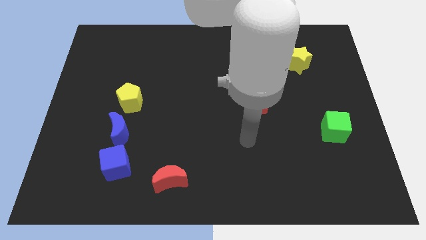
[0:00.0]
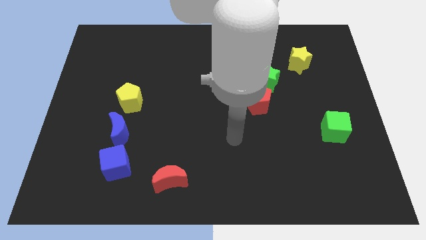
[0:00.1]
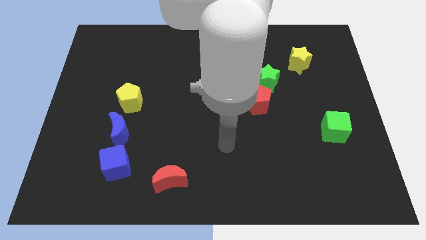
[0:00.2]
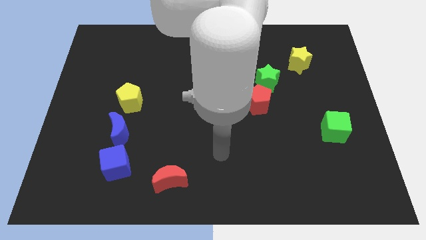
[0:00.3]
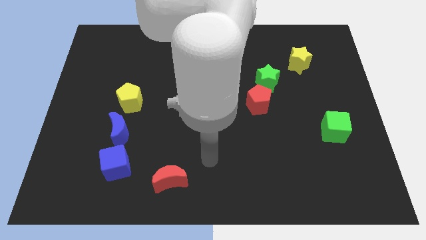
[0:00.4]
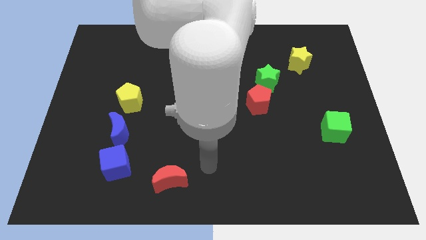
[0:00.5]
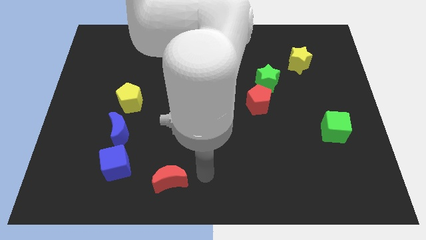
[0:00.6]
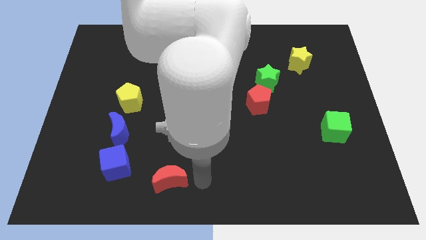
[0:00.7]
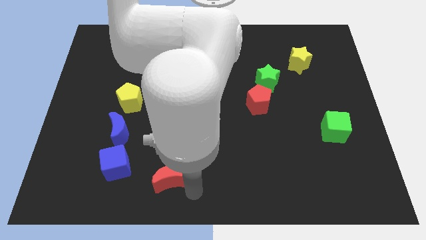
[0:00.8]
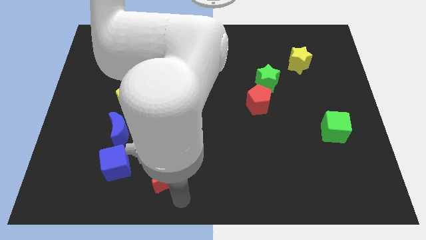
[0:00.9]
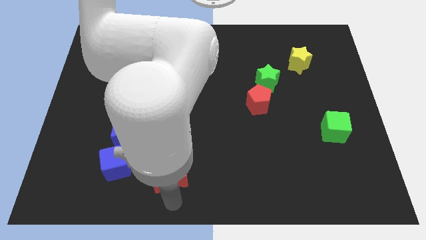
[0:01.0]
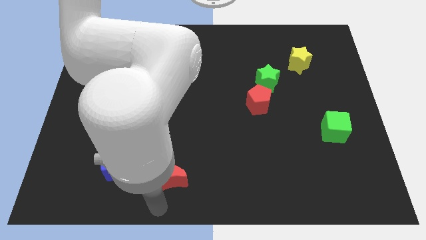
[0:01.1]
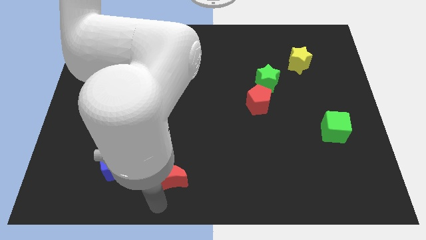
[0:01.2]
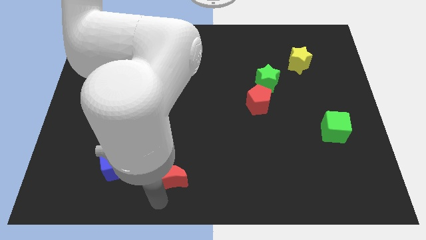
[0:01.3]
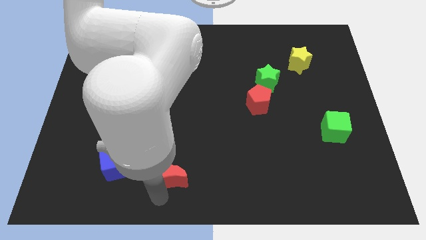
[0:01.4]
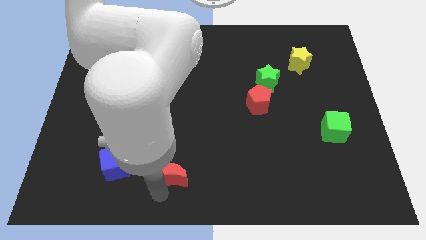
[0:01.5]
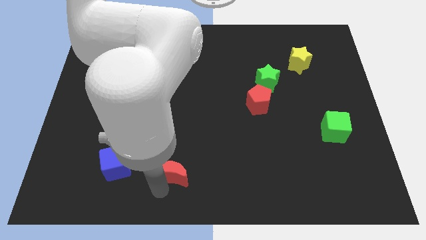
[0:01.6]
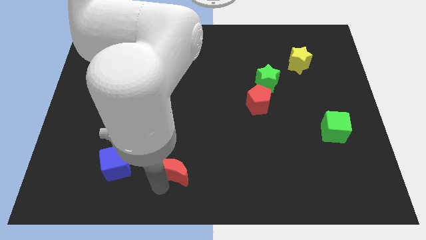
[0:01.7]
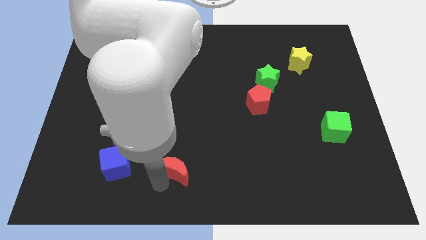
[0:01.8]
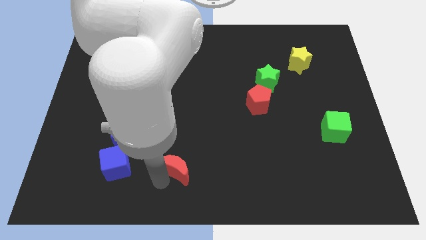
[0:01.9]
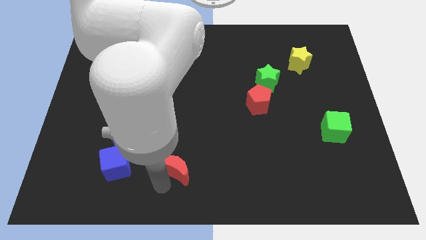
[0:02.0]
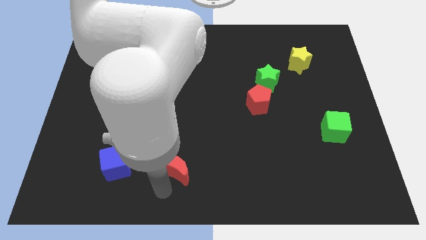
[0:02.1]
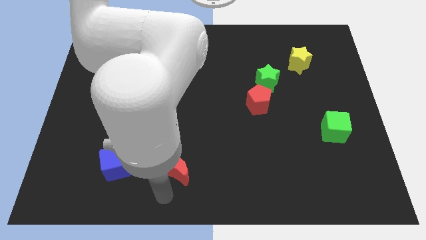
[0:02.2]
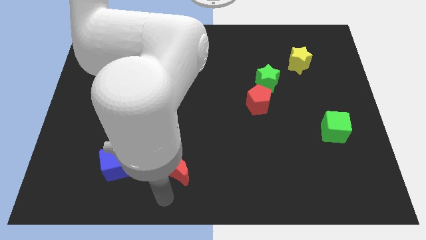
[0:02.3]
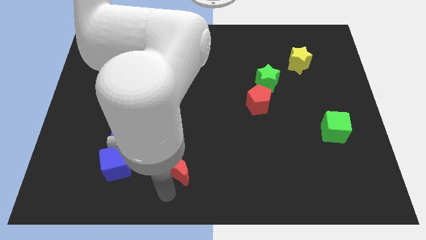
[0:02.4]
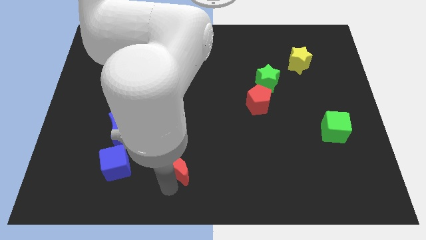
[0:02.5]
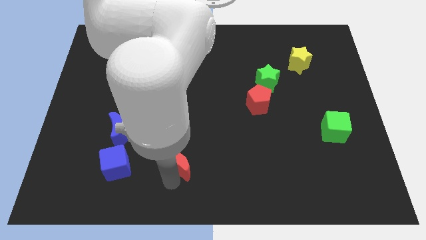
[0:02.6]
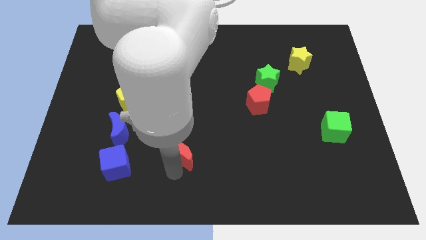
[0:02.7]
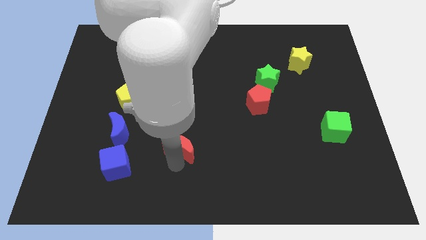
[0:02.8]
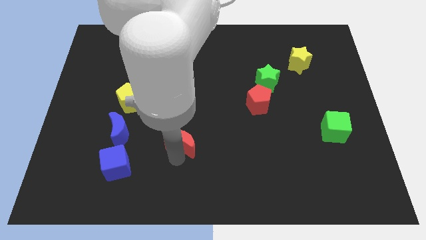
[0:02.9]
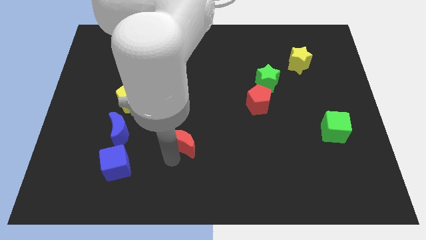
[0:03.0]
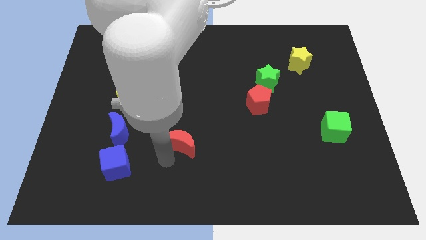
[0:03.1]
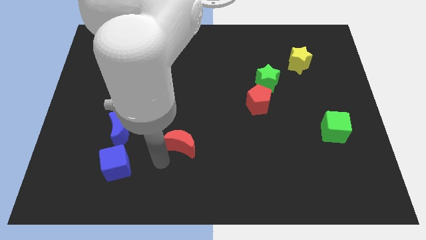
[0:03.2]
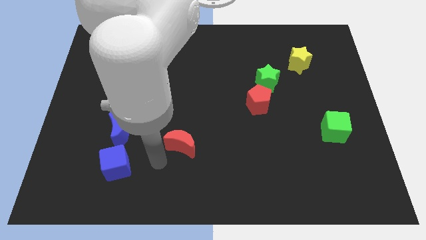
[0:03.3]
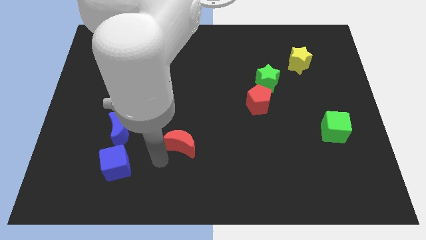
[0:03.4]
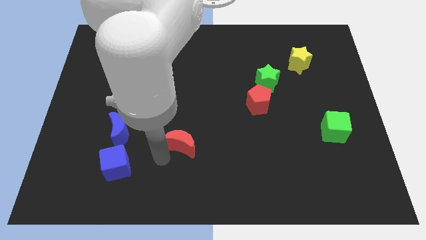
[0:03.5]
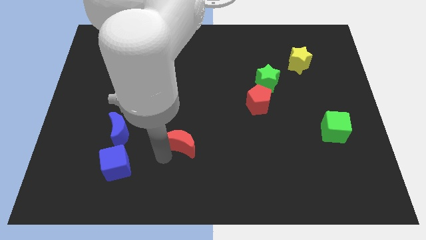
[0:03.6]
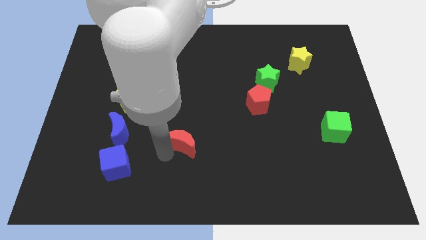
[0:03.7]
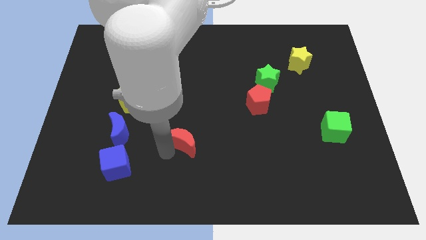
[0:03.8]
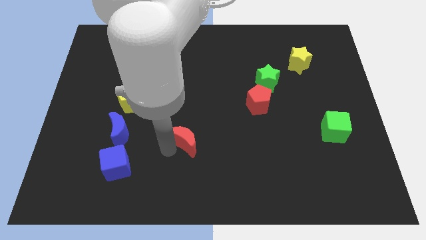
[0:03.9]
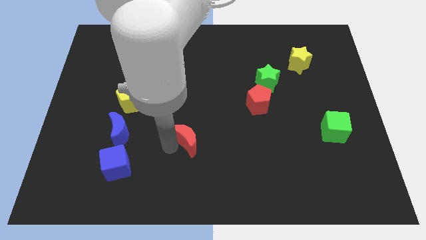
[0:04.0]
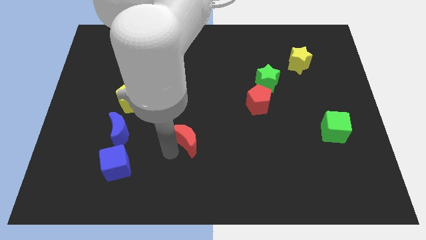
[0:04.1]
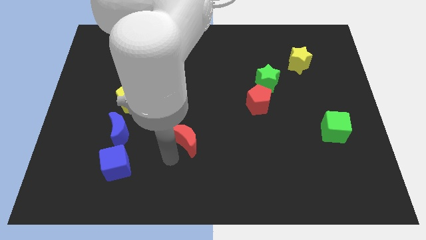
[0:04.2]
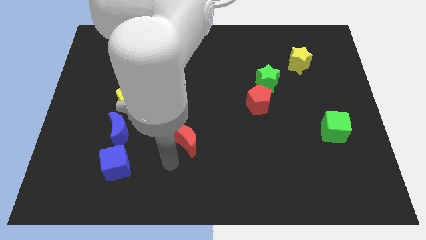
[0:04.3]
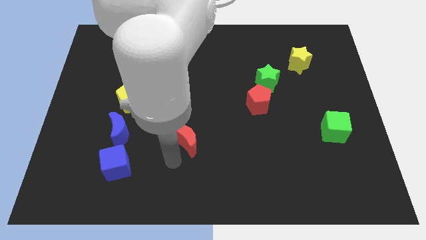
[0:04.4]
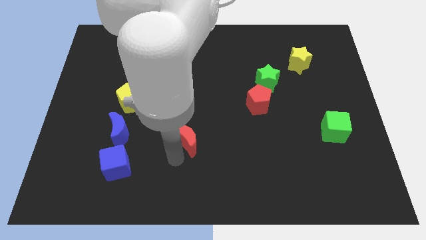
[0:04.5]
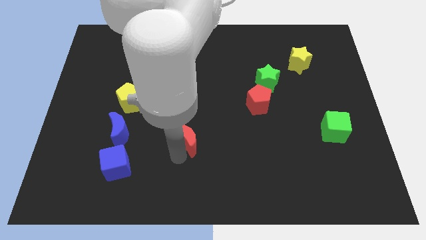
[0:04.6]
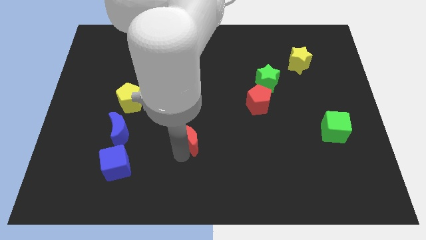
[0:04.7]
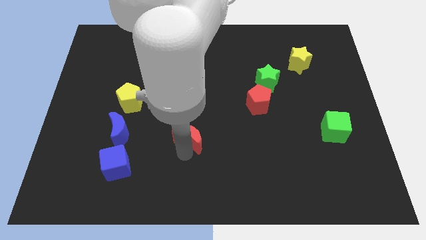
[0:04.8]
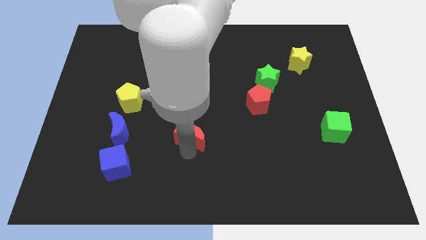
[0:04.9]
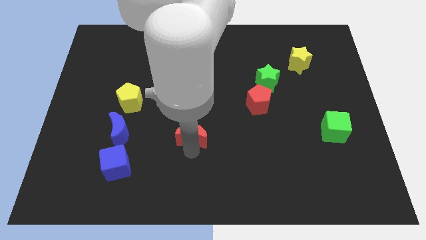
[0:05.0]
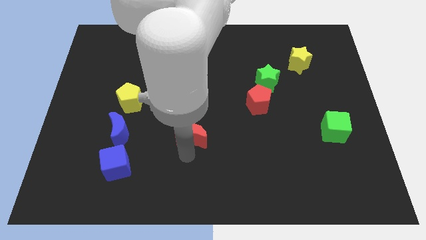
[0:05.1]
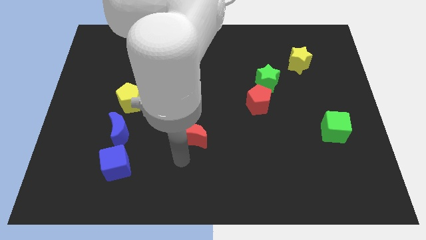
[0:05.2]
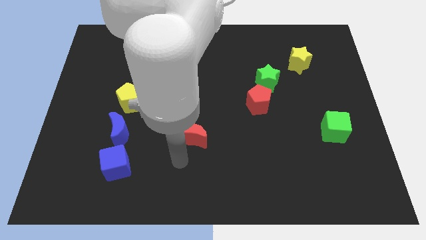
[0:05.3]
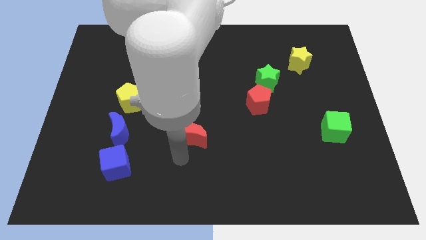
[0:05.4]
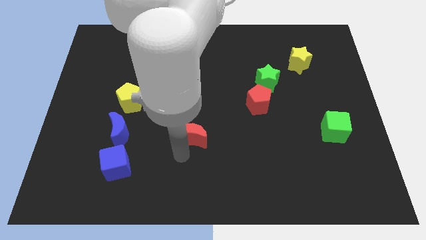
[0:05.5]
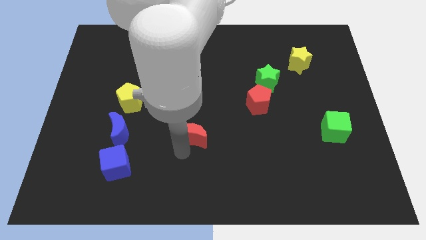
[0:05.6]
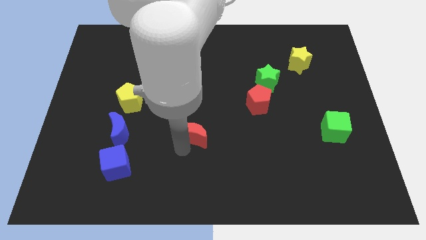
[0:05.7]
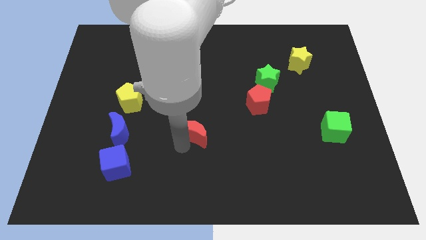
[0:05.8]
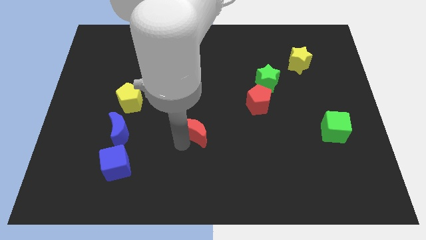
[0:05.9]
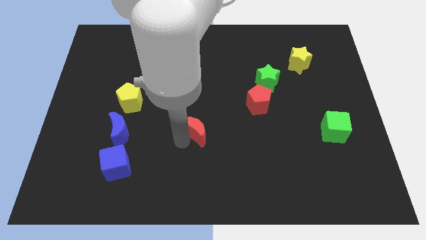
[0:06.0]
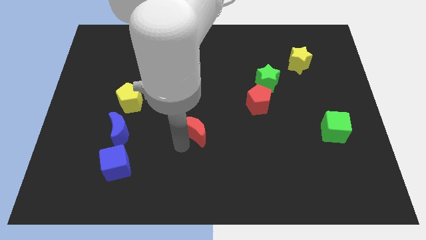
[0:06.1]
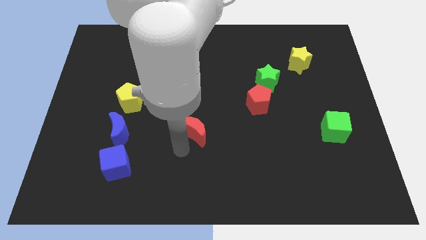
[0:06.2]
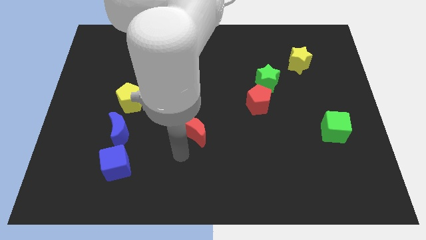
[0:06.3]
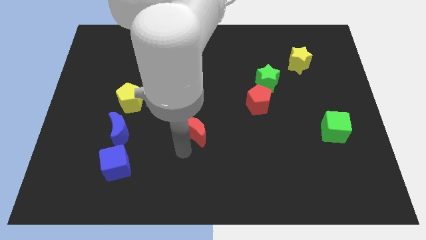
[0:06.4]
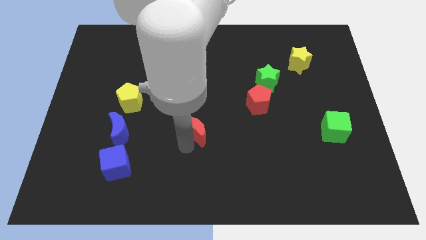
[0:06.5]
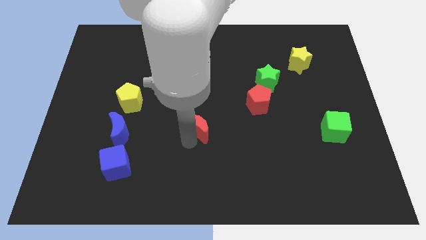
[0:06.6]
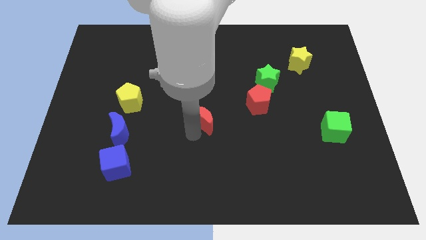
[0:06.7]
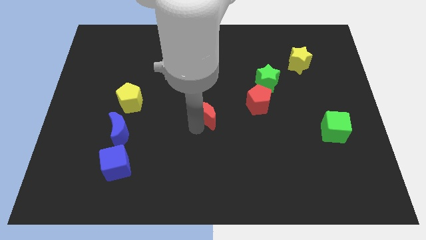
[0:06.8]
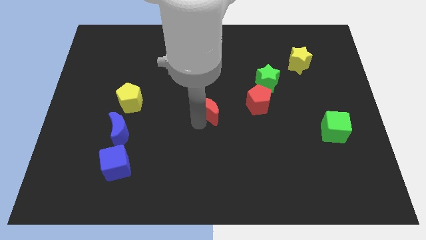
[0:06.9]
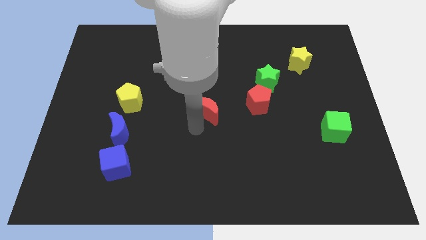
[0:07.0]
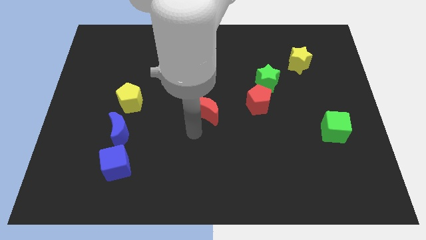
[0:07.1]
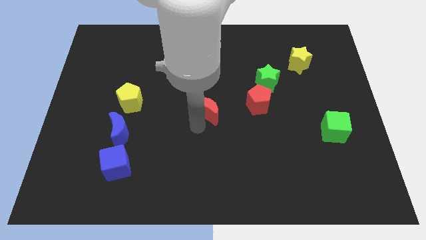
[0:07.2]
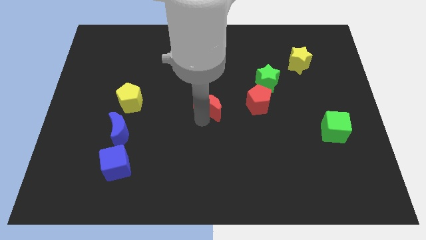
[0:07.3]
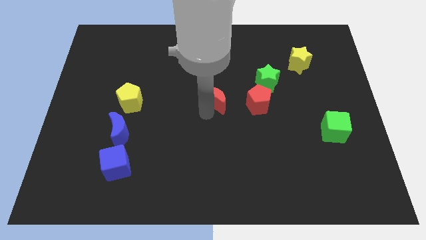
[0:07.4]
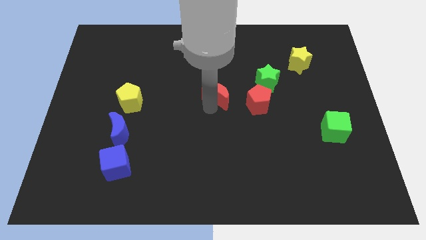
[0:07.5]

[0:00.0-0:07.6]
put the red moon to the left side of the green star
